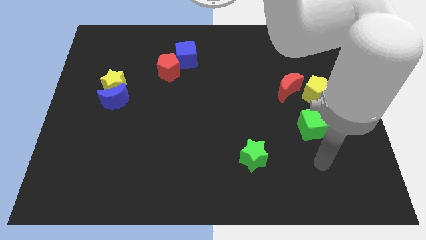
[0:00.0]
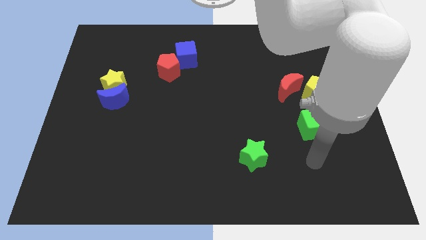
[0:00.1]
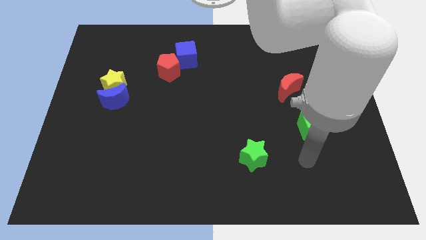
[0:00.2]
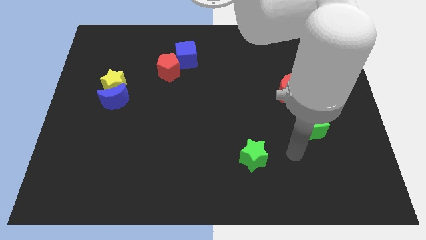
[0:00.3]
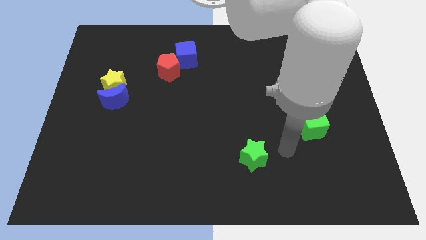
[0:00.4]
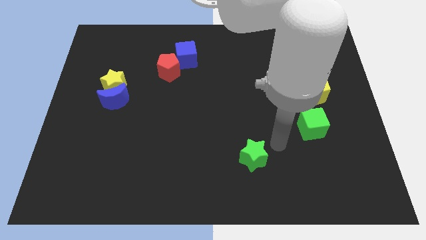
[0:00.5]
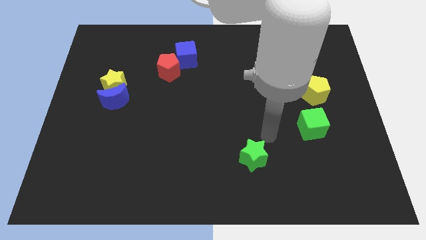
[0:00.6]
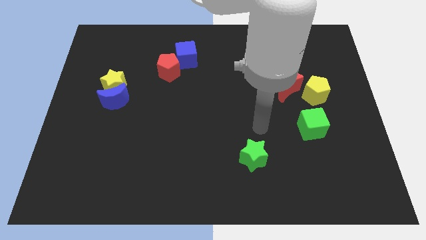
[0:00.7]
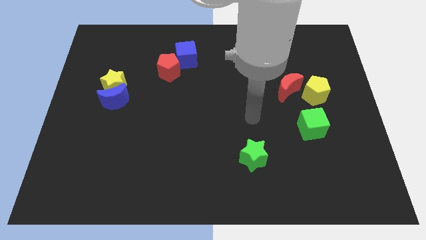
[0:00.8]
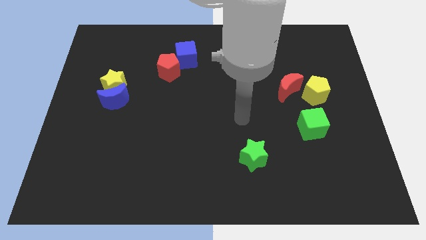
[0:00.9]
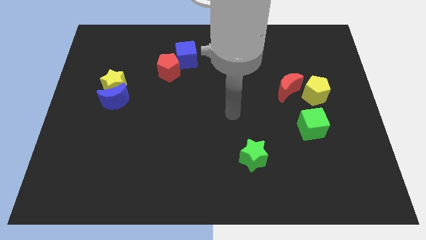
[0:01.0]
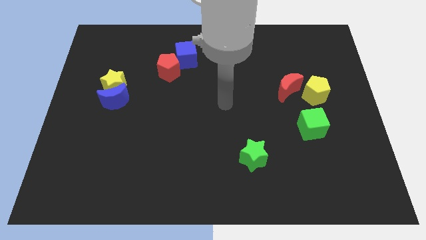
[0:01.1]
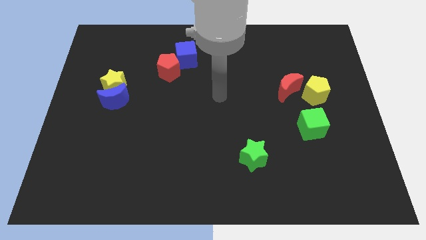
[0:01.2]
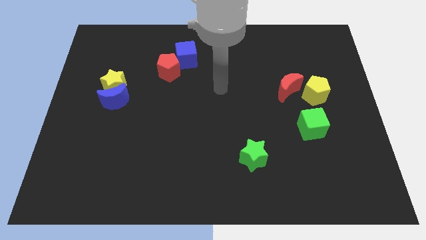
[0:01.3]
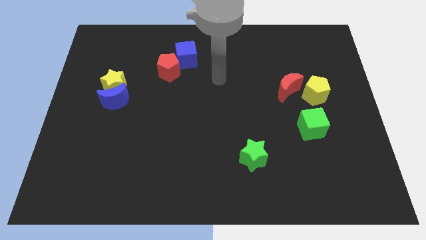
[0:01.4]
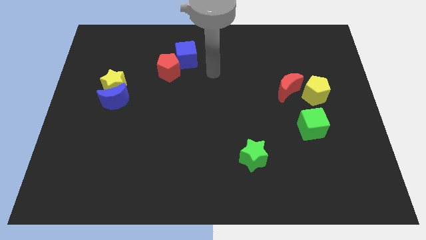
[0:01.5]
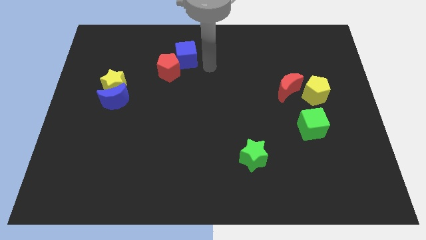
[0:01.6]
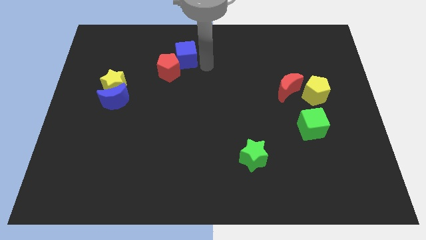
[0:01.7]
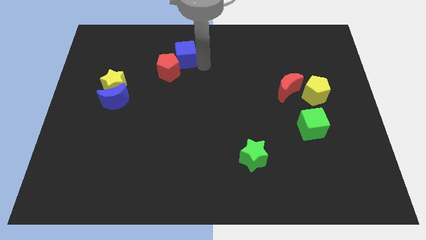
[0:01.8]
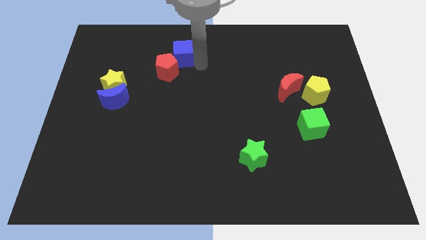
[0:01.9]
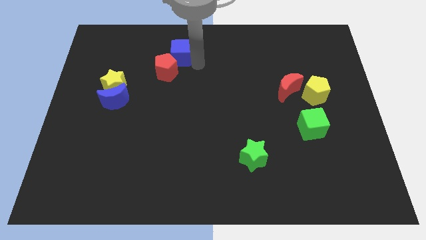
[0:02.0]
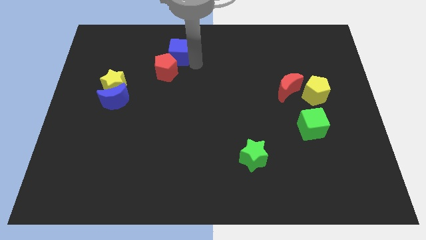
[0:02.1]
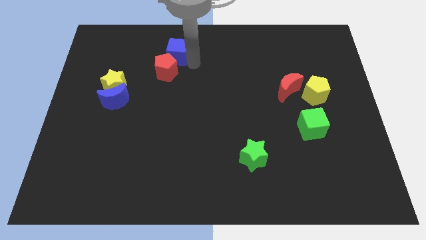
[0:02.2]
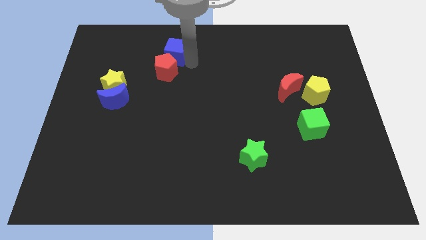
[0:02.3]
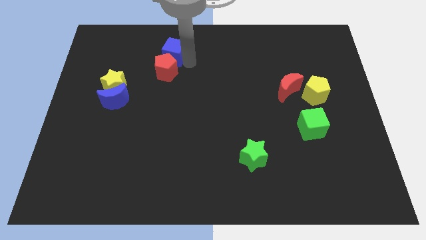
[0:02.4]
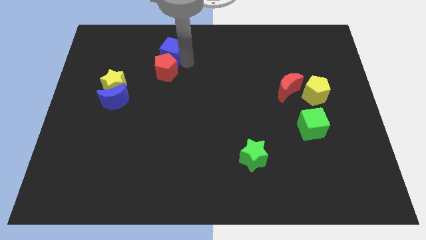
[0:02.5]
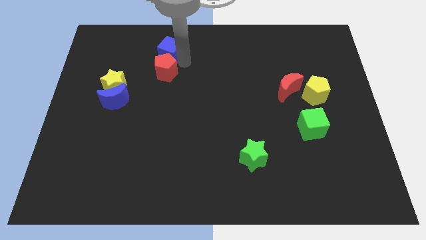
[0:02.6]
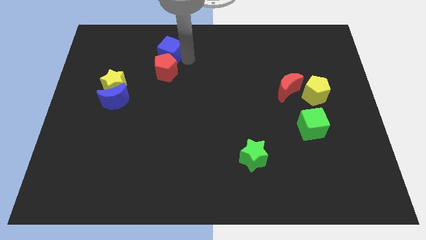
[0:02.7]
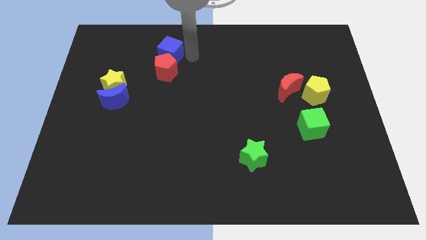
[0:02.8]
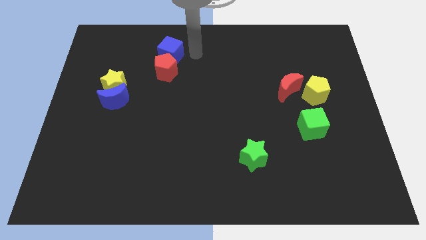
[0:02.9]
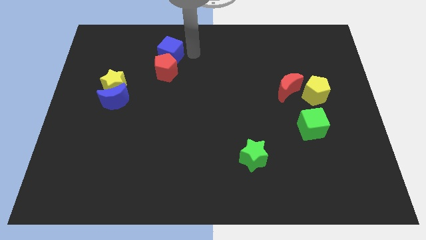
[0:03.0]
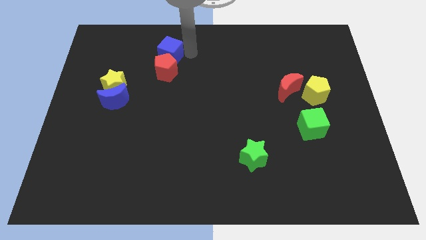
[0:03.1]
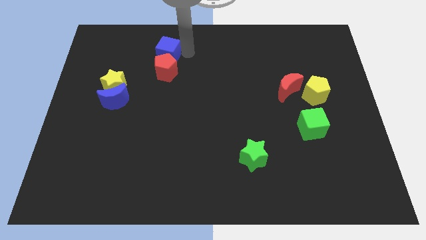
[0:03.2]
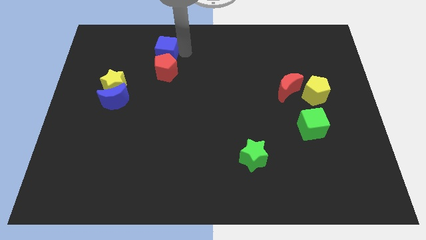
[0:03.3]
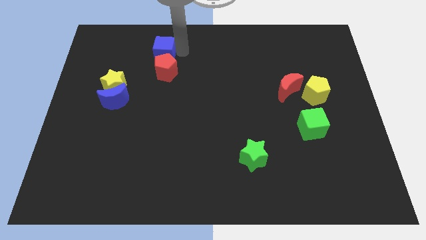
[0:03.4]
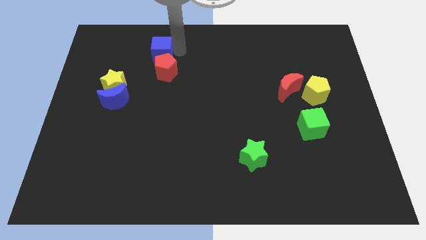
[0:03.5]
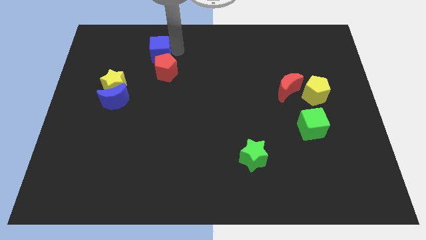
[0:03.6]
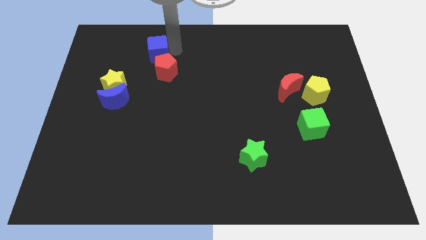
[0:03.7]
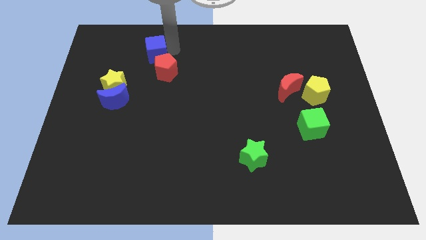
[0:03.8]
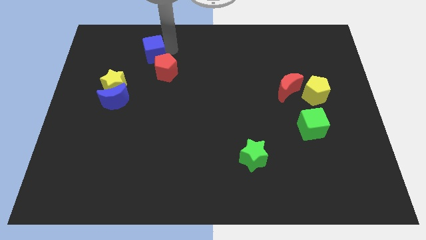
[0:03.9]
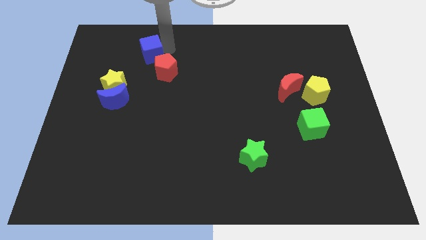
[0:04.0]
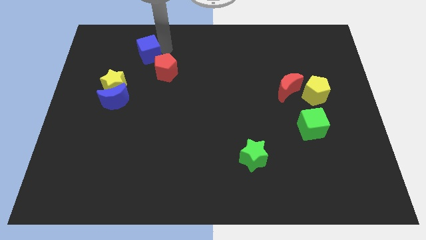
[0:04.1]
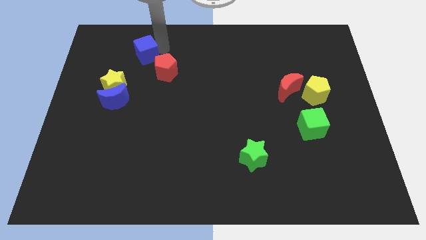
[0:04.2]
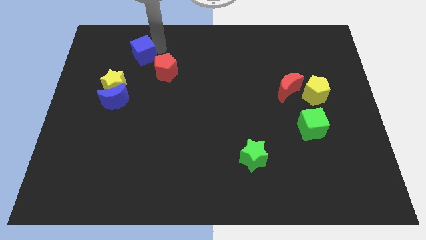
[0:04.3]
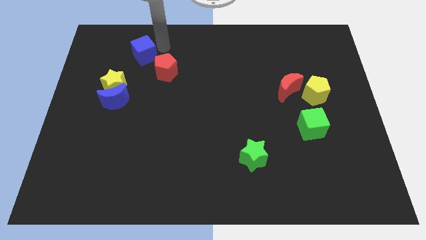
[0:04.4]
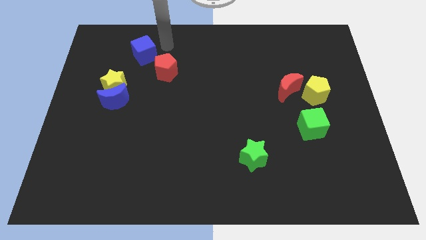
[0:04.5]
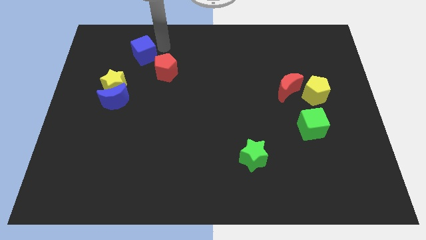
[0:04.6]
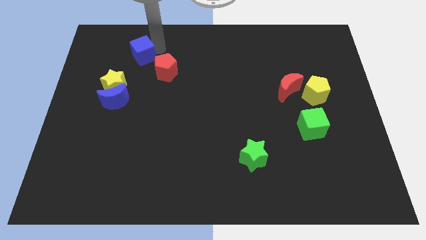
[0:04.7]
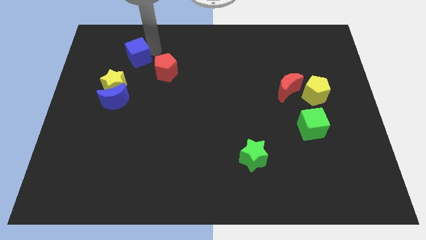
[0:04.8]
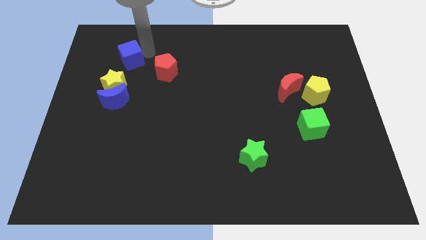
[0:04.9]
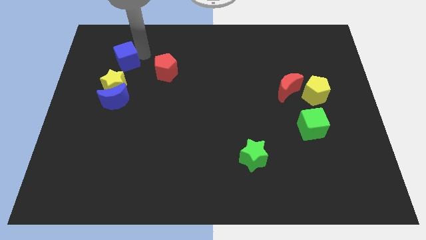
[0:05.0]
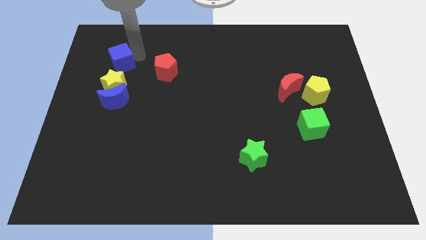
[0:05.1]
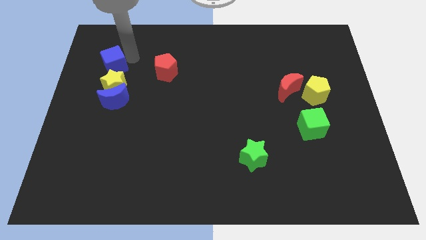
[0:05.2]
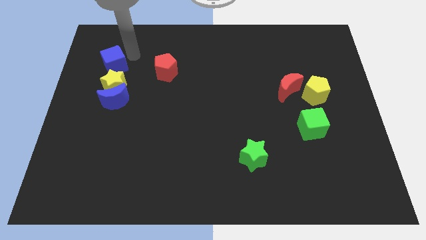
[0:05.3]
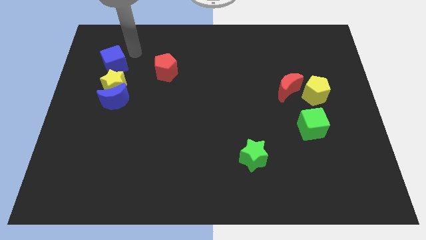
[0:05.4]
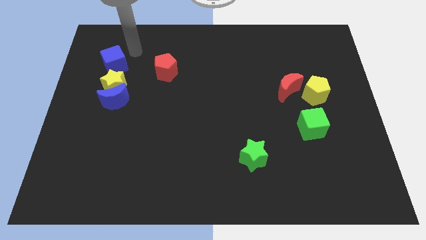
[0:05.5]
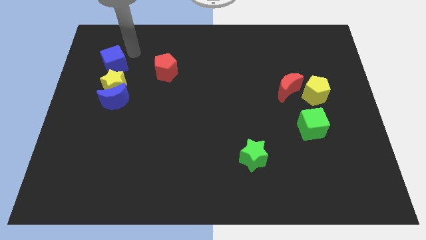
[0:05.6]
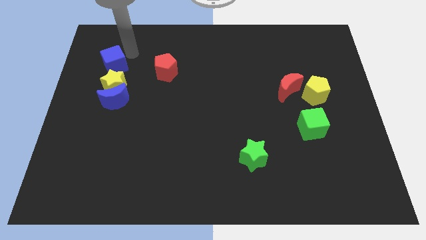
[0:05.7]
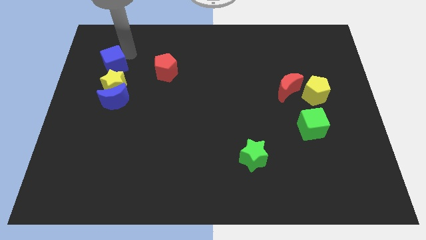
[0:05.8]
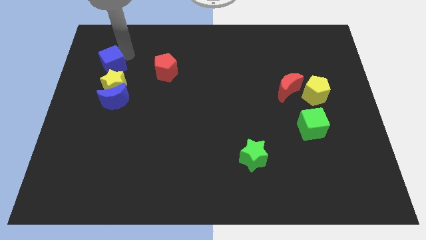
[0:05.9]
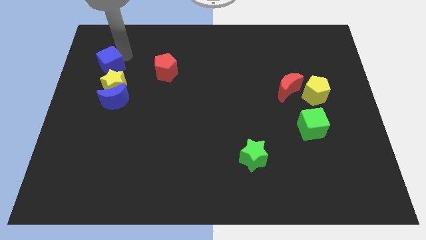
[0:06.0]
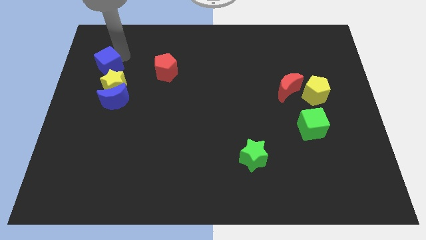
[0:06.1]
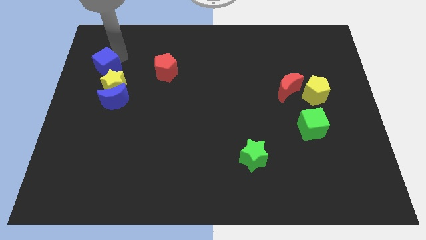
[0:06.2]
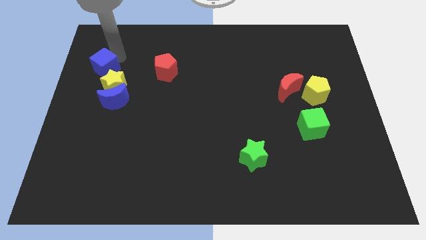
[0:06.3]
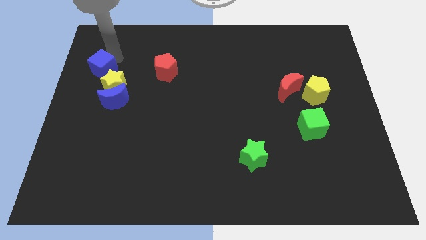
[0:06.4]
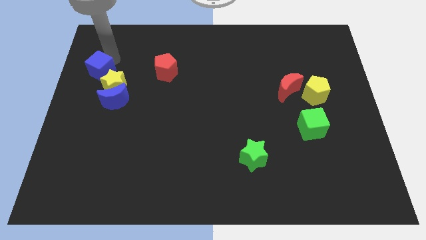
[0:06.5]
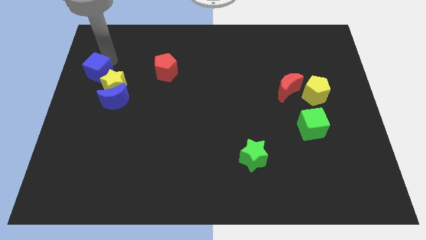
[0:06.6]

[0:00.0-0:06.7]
move the blue cube to the left side of the board

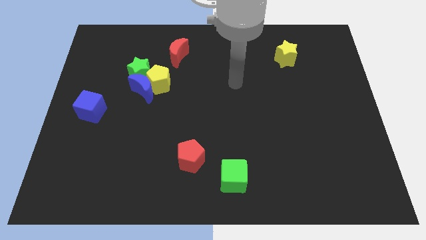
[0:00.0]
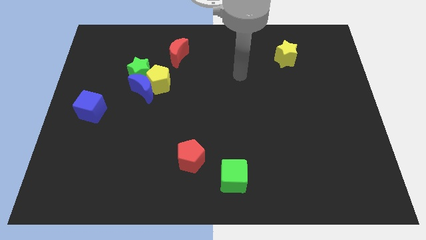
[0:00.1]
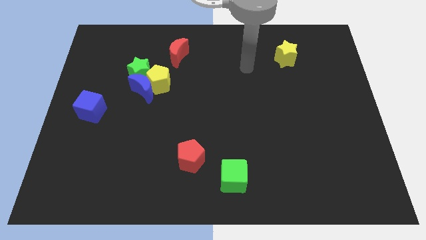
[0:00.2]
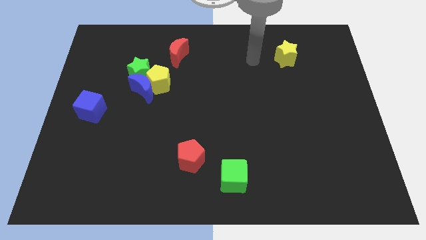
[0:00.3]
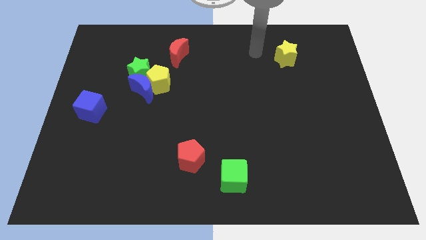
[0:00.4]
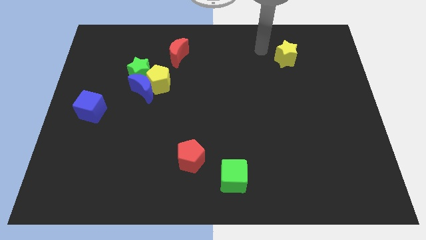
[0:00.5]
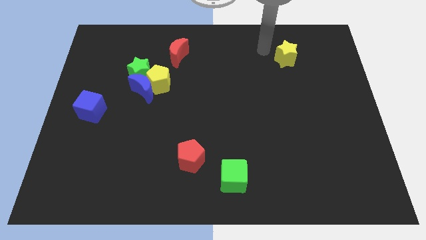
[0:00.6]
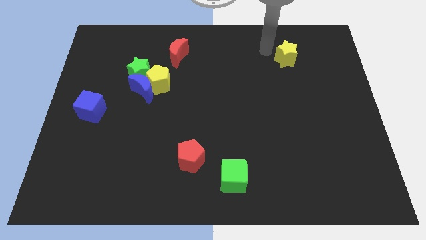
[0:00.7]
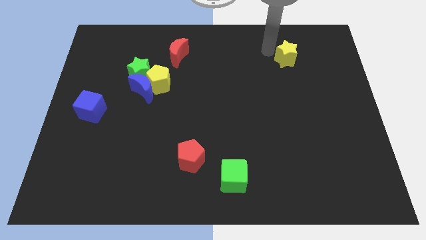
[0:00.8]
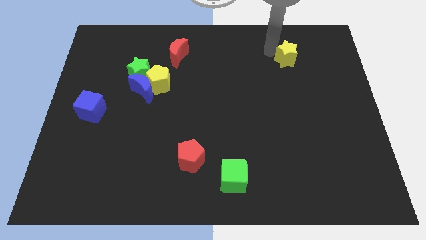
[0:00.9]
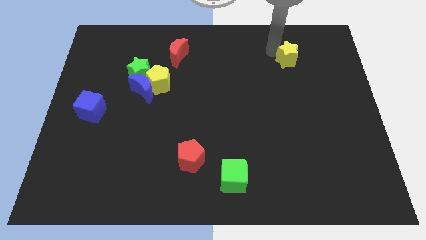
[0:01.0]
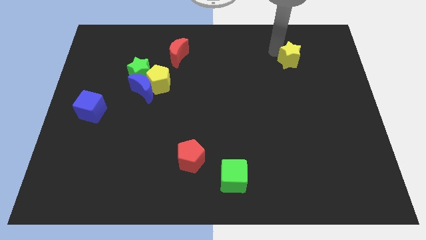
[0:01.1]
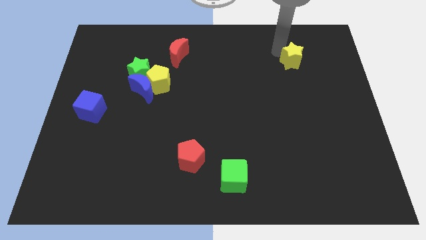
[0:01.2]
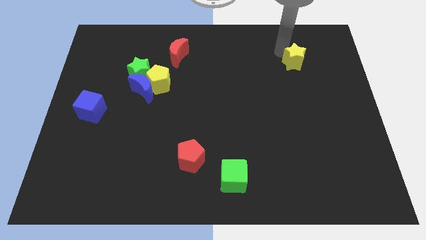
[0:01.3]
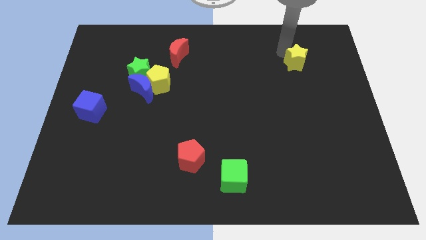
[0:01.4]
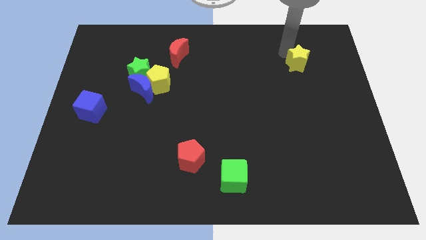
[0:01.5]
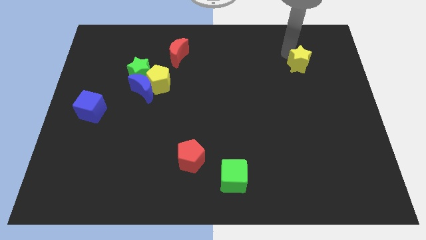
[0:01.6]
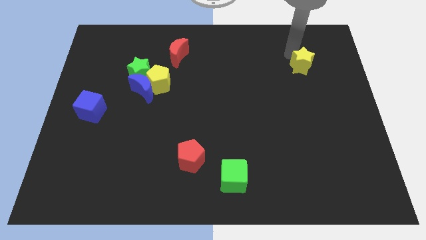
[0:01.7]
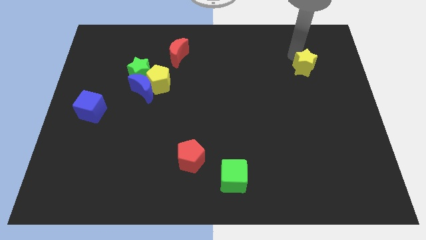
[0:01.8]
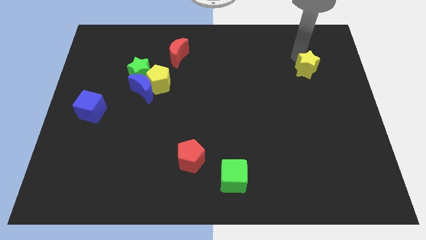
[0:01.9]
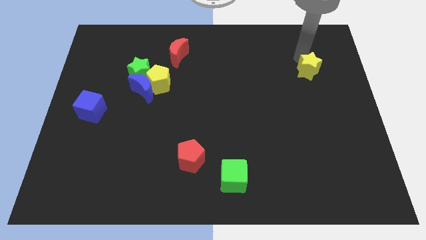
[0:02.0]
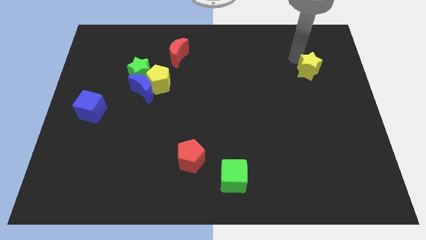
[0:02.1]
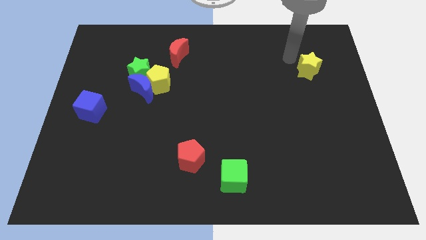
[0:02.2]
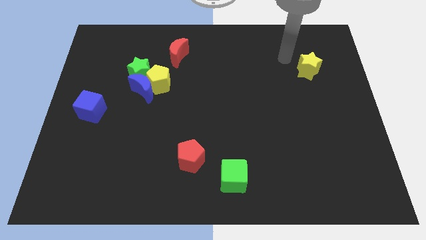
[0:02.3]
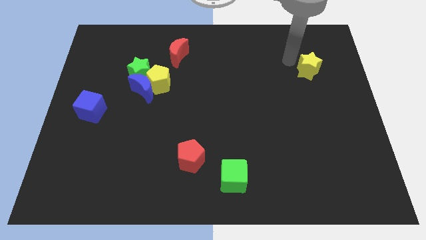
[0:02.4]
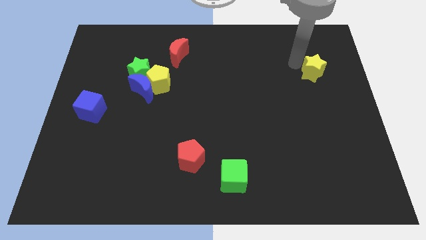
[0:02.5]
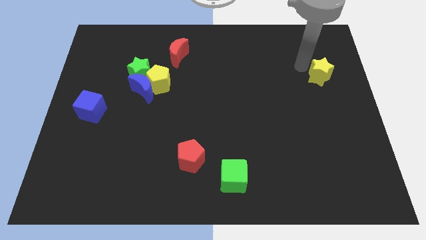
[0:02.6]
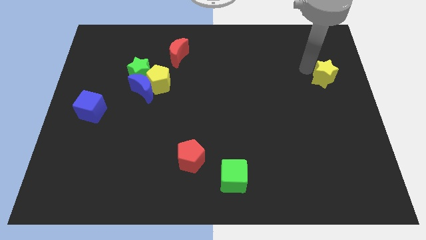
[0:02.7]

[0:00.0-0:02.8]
slide the yellow star to the right side of the board
